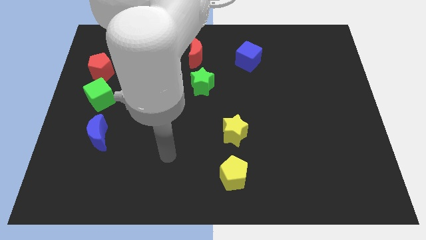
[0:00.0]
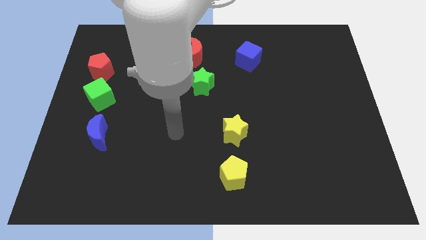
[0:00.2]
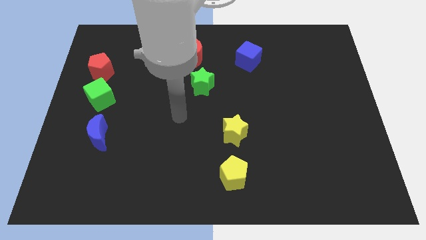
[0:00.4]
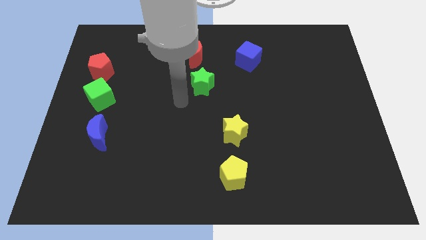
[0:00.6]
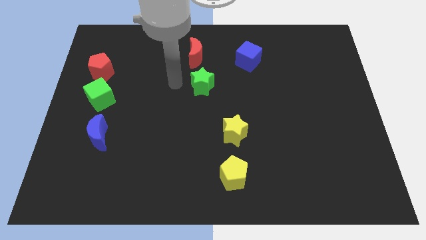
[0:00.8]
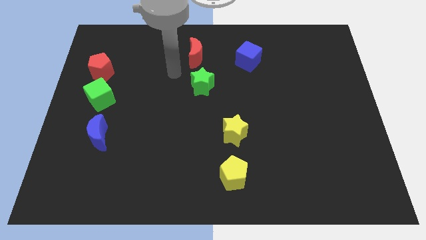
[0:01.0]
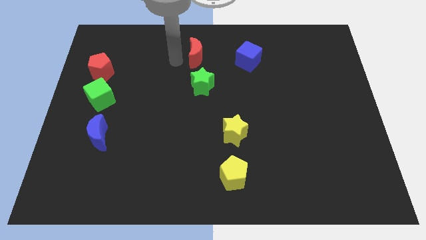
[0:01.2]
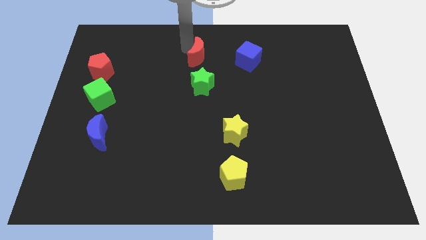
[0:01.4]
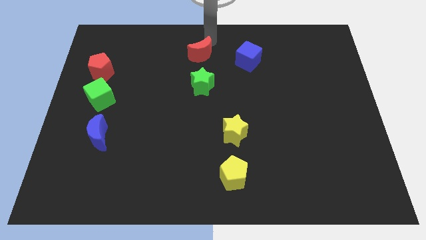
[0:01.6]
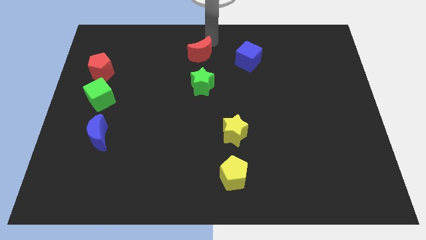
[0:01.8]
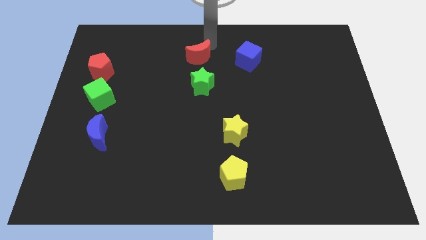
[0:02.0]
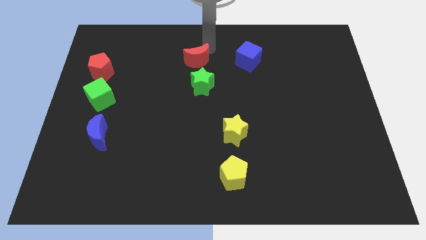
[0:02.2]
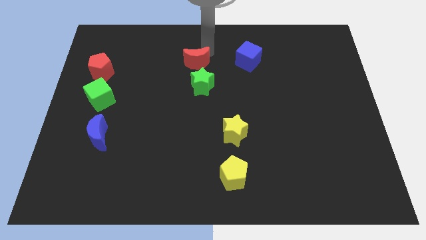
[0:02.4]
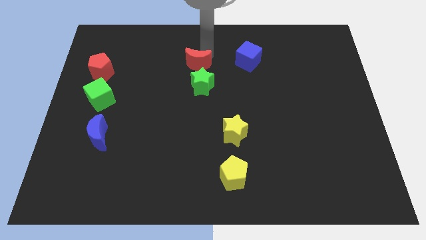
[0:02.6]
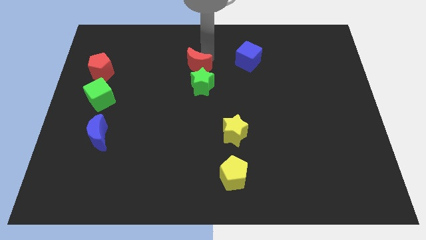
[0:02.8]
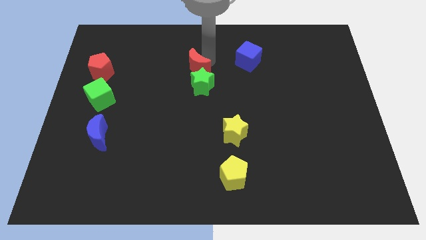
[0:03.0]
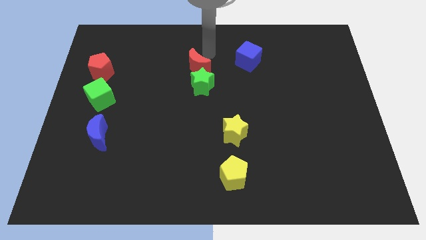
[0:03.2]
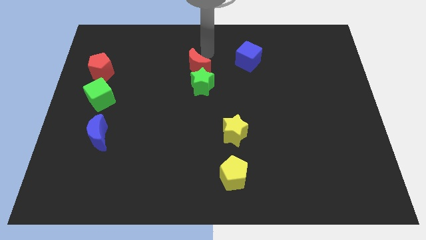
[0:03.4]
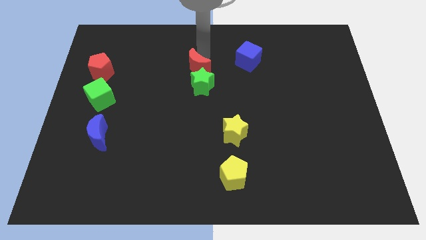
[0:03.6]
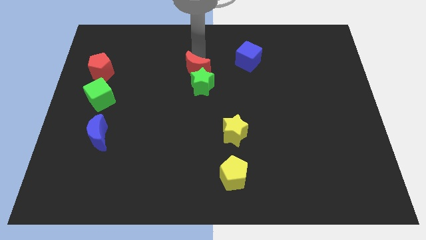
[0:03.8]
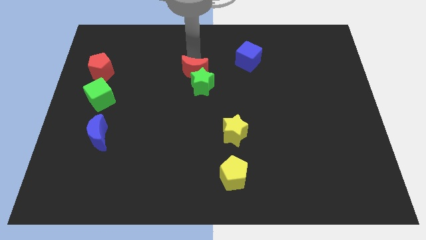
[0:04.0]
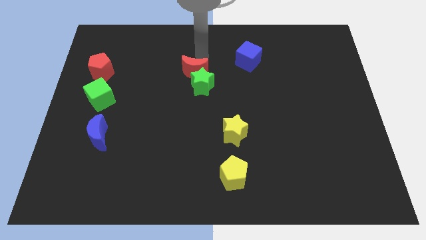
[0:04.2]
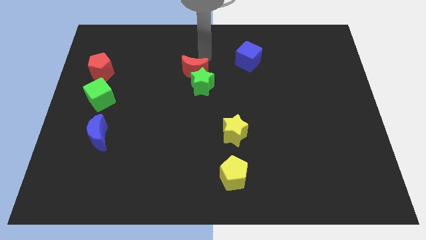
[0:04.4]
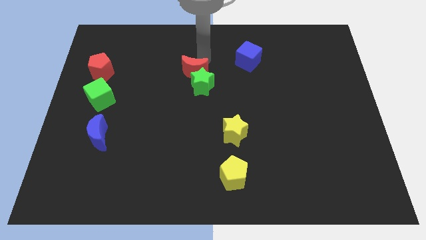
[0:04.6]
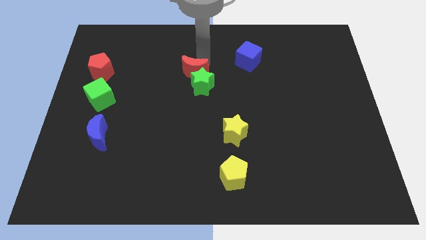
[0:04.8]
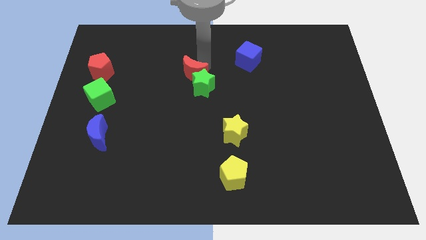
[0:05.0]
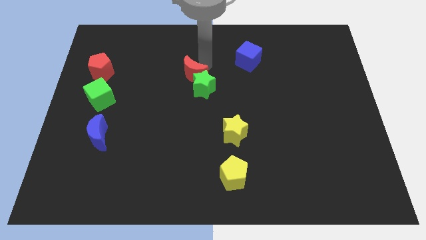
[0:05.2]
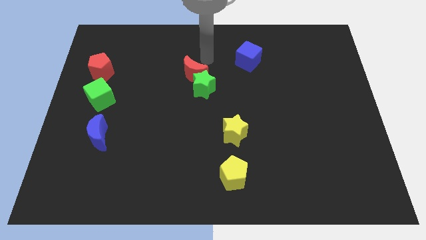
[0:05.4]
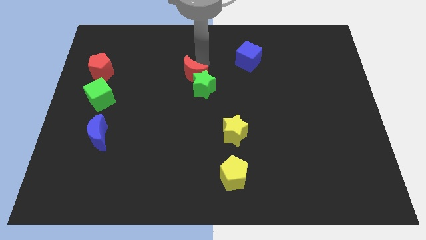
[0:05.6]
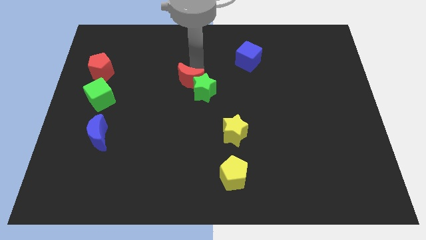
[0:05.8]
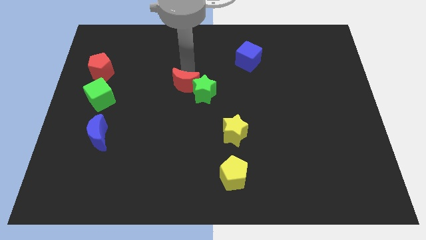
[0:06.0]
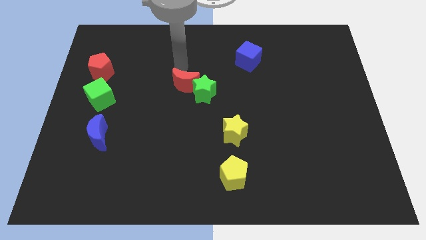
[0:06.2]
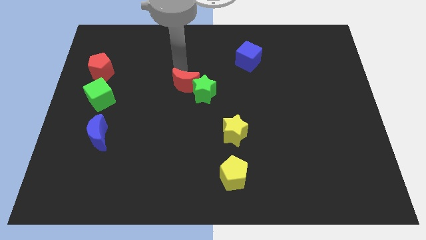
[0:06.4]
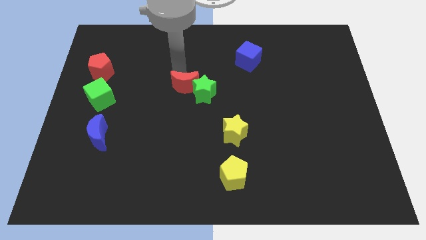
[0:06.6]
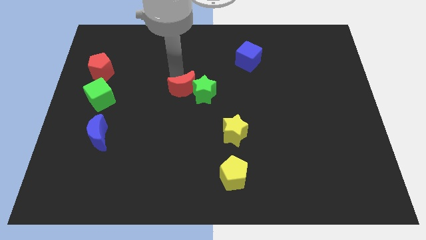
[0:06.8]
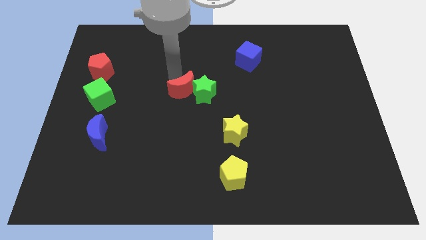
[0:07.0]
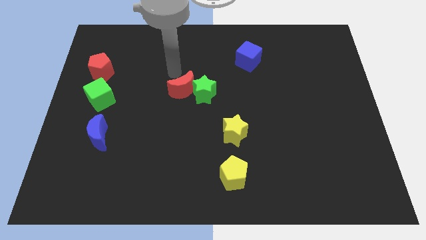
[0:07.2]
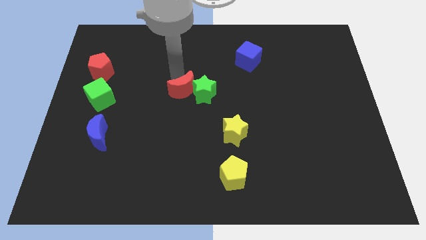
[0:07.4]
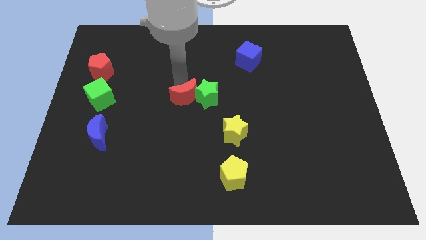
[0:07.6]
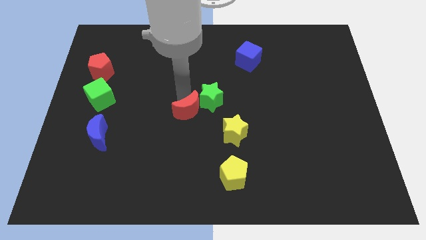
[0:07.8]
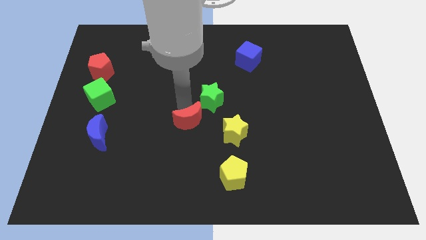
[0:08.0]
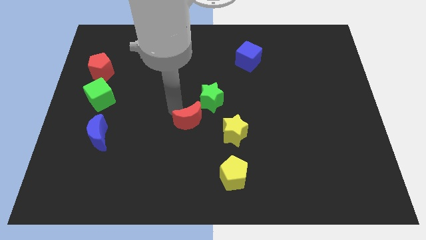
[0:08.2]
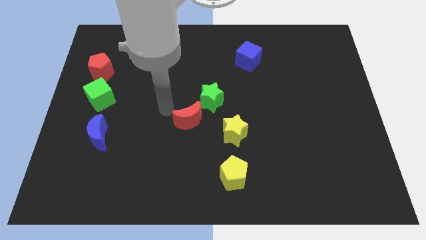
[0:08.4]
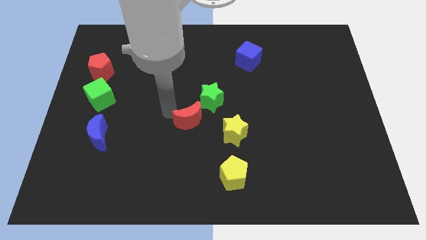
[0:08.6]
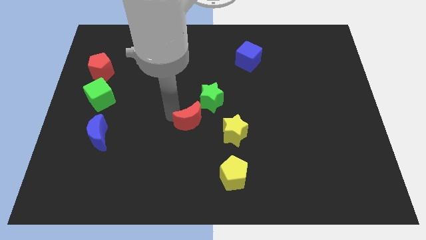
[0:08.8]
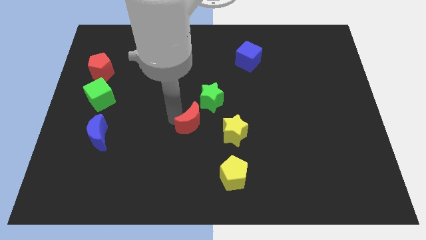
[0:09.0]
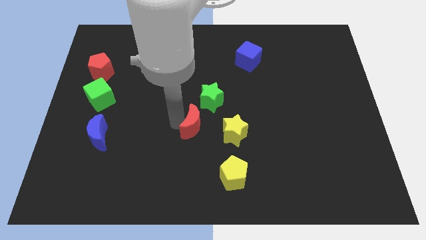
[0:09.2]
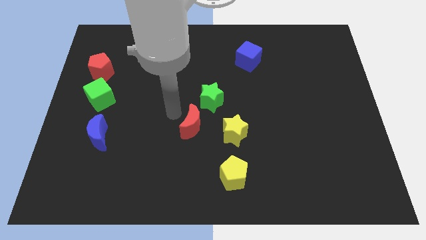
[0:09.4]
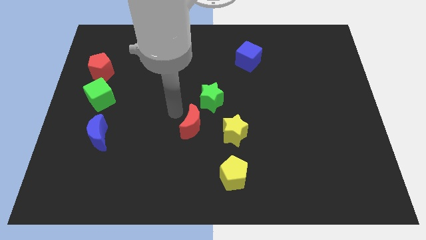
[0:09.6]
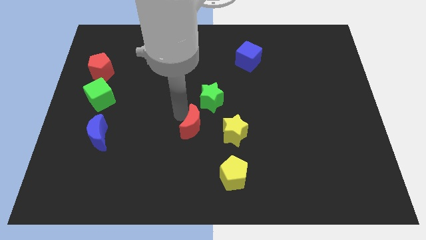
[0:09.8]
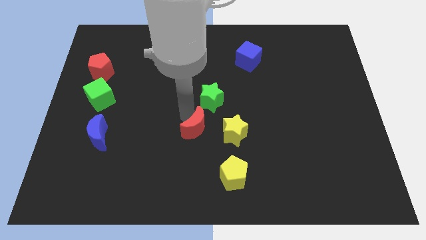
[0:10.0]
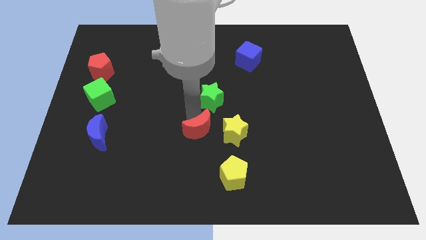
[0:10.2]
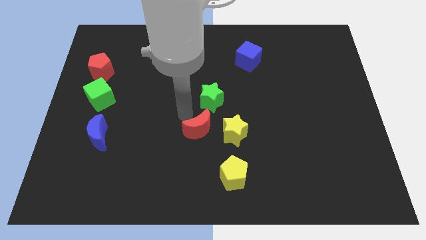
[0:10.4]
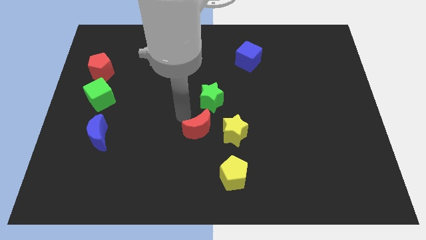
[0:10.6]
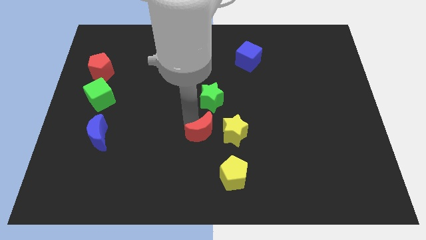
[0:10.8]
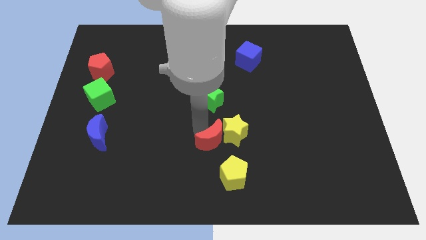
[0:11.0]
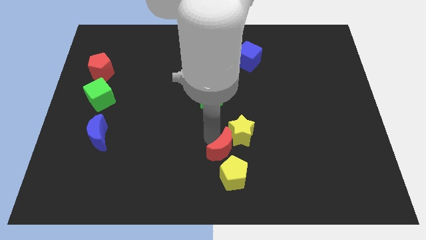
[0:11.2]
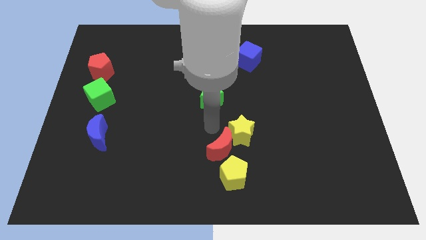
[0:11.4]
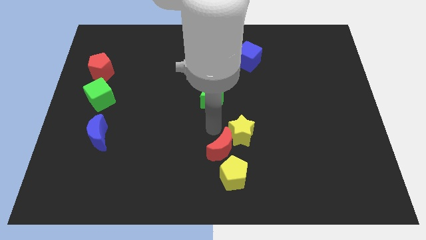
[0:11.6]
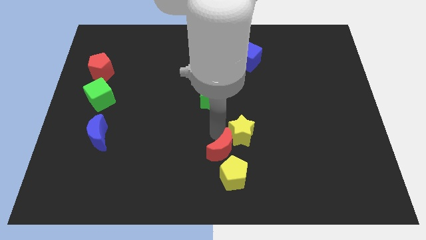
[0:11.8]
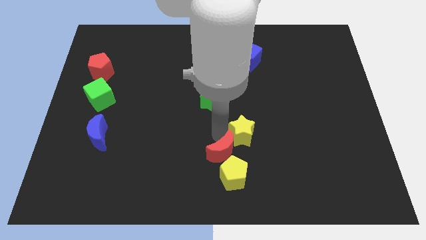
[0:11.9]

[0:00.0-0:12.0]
slide the red moon close to the yellow pentagon
